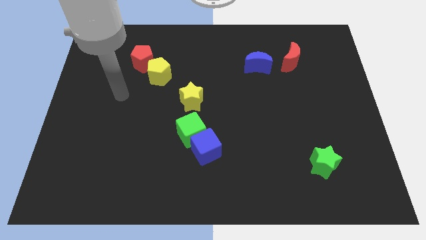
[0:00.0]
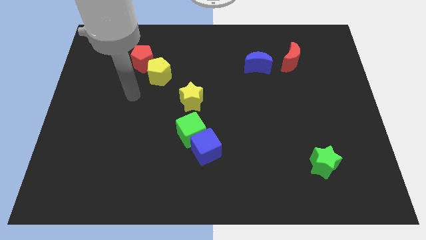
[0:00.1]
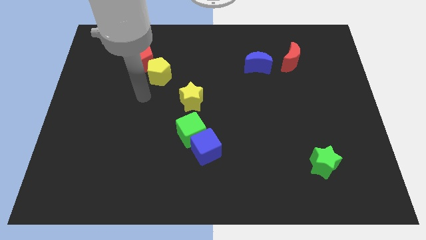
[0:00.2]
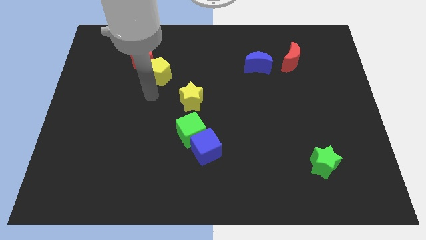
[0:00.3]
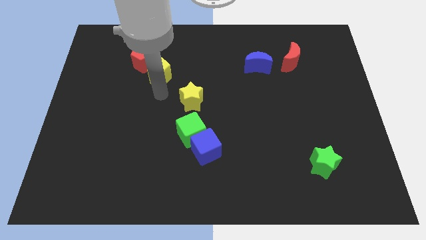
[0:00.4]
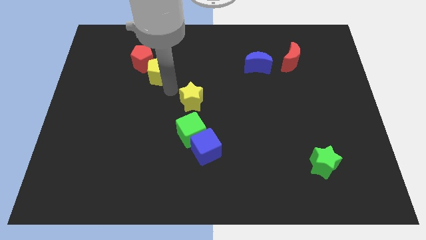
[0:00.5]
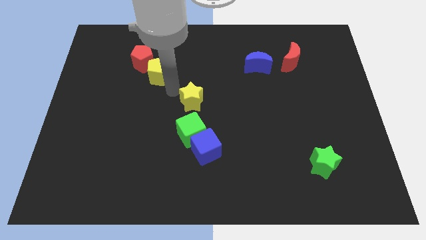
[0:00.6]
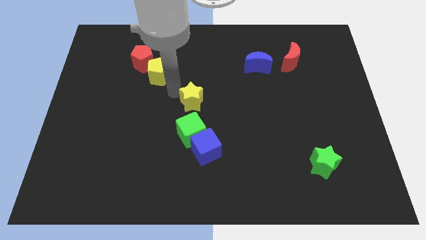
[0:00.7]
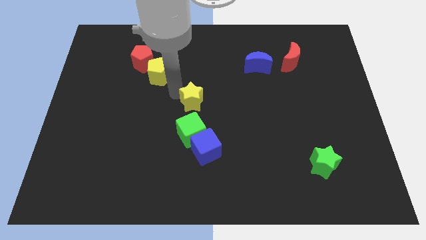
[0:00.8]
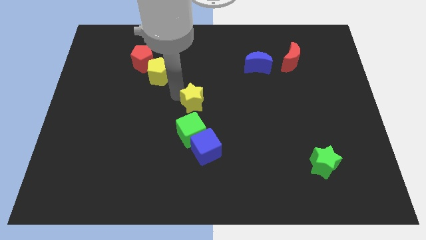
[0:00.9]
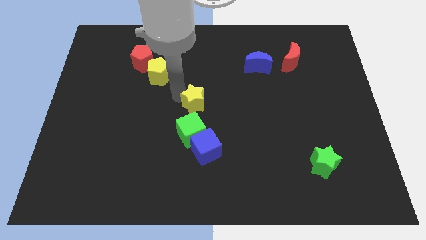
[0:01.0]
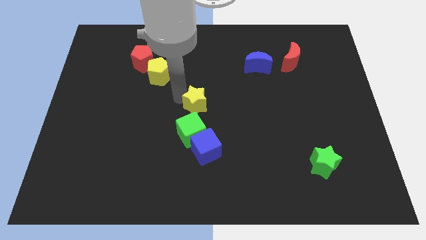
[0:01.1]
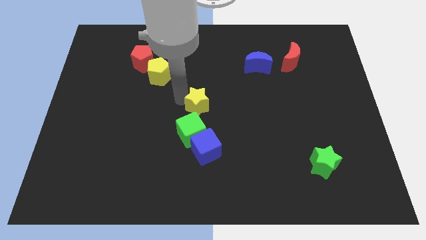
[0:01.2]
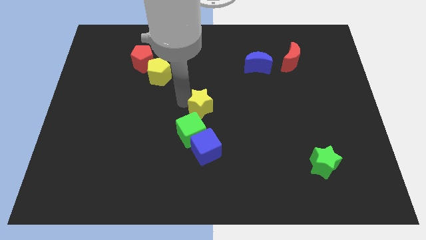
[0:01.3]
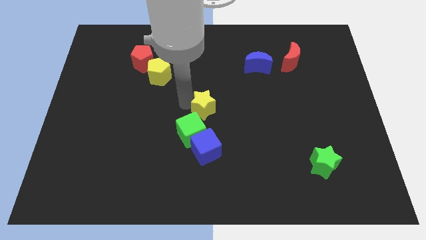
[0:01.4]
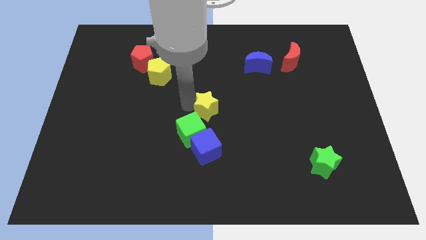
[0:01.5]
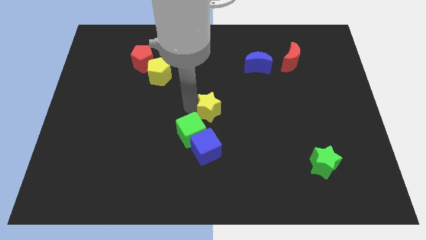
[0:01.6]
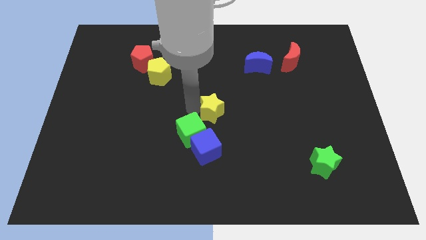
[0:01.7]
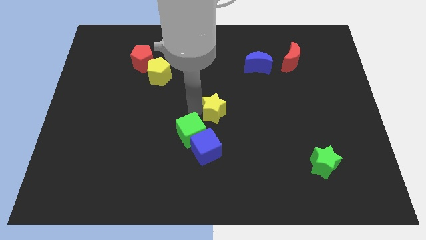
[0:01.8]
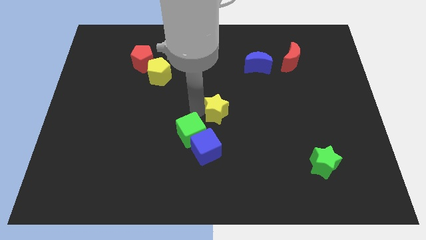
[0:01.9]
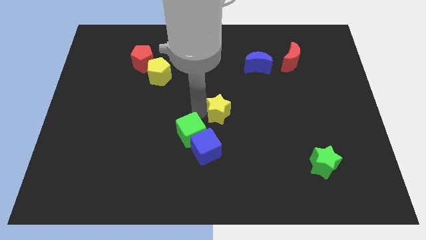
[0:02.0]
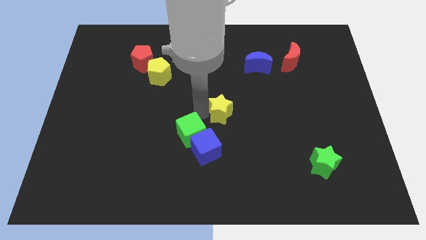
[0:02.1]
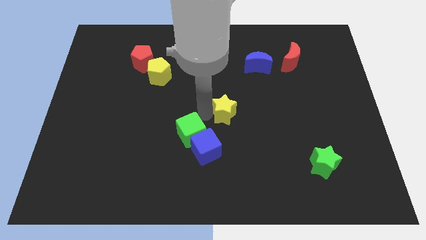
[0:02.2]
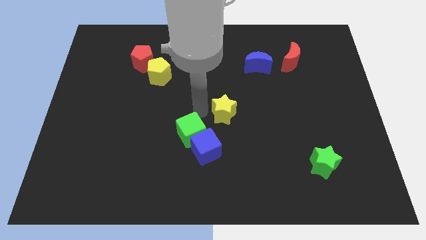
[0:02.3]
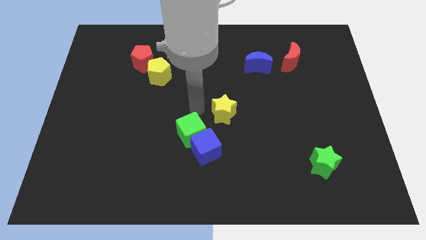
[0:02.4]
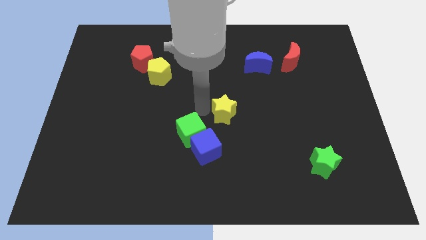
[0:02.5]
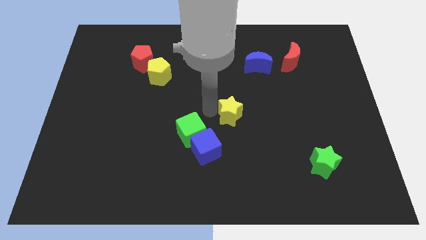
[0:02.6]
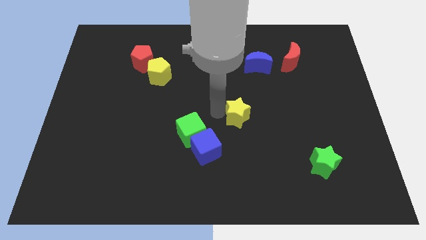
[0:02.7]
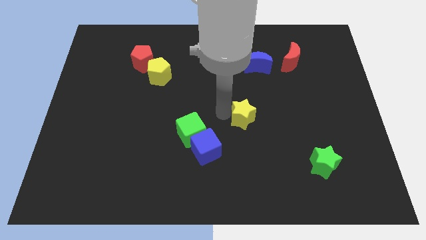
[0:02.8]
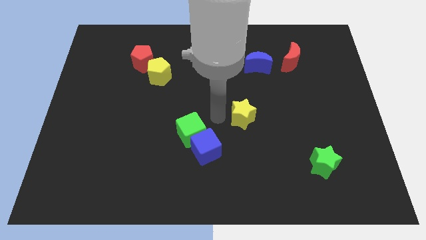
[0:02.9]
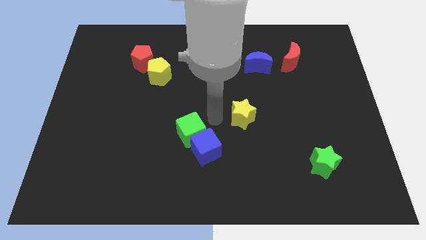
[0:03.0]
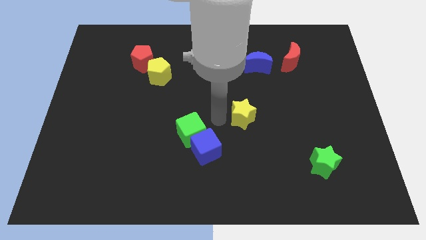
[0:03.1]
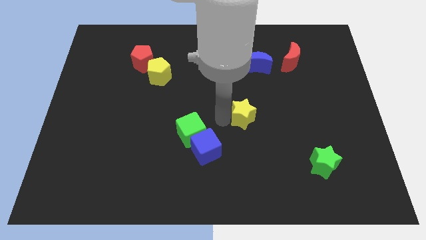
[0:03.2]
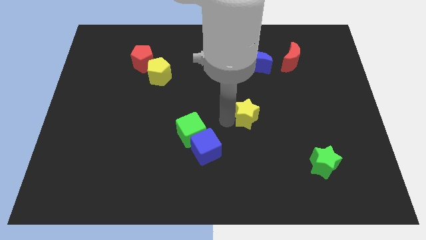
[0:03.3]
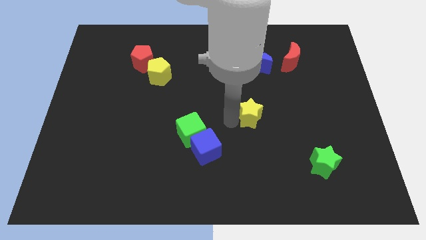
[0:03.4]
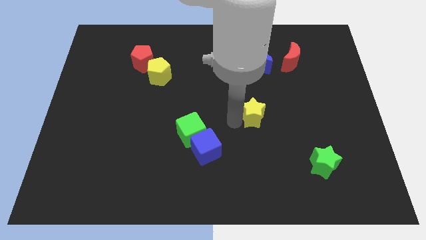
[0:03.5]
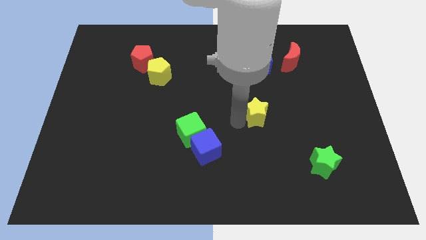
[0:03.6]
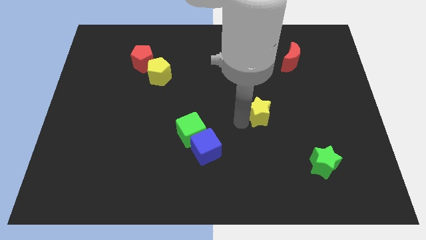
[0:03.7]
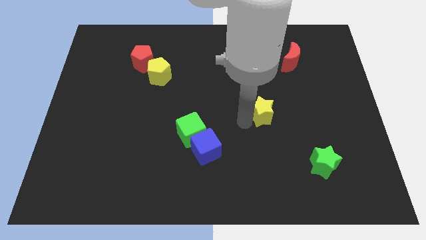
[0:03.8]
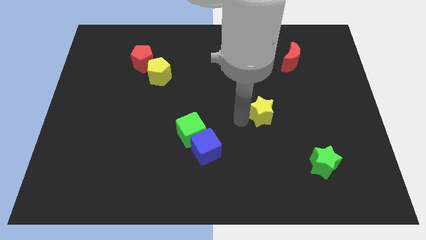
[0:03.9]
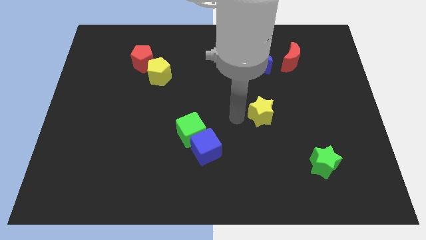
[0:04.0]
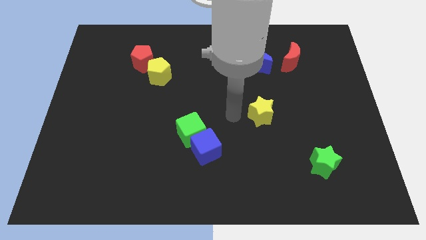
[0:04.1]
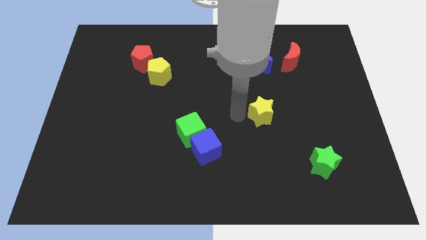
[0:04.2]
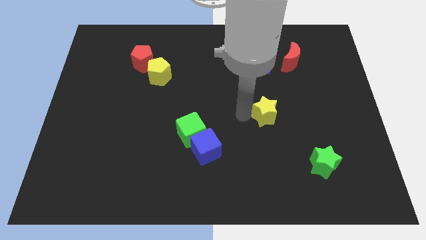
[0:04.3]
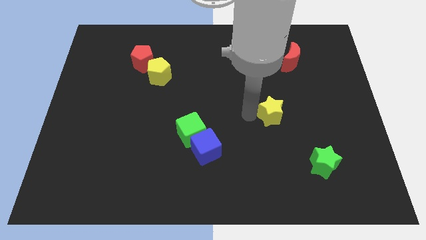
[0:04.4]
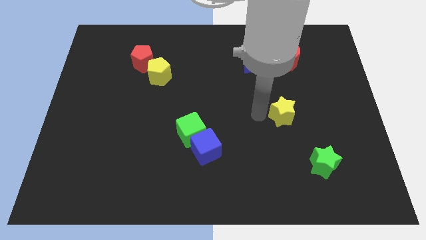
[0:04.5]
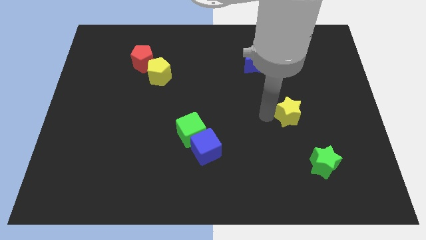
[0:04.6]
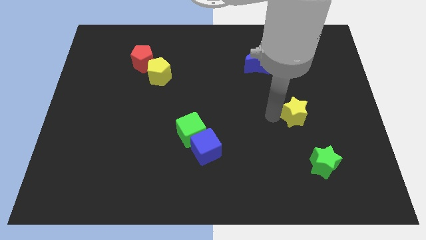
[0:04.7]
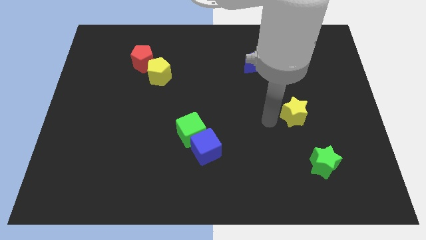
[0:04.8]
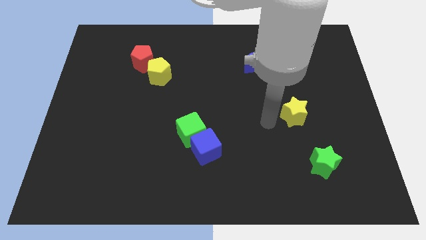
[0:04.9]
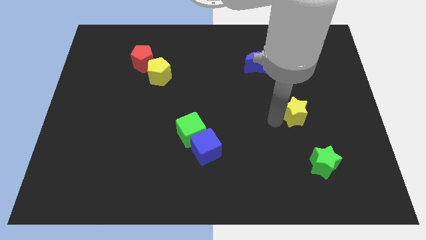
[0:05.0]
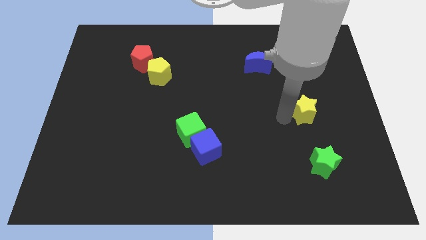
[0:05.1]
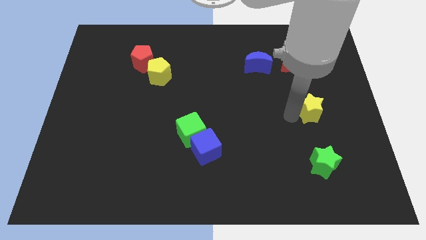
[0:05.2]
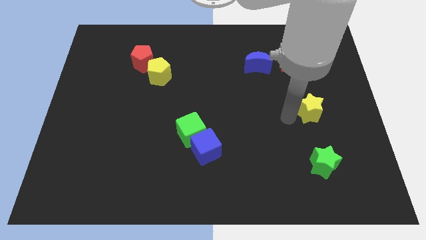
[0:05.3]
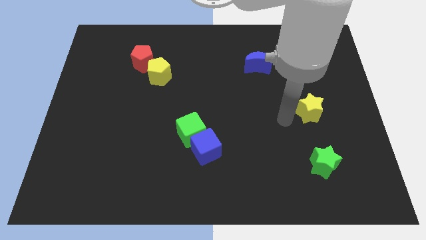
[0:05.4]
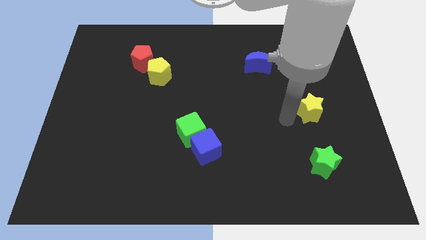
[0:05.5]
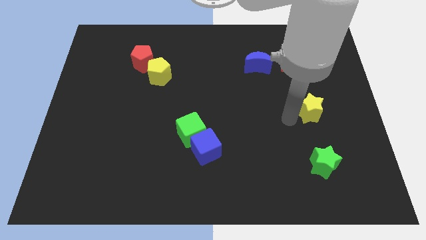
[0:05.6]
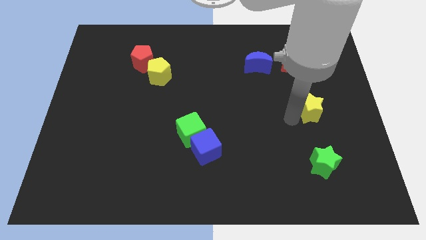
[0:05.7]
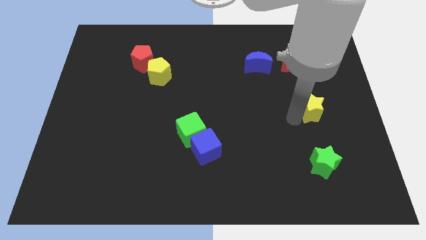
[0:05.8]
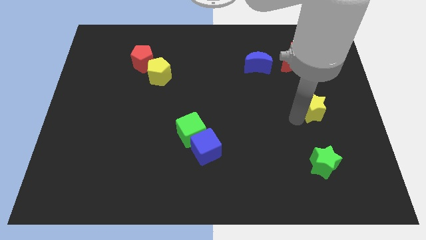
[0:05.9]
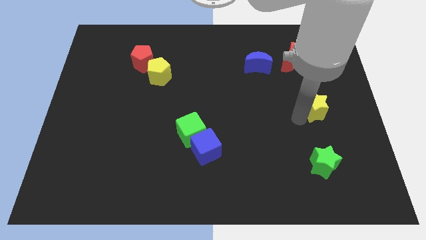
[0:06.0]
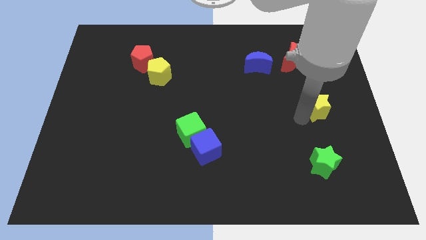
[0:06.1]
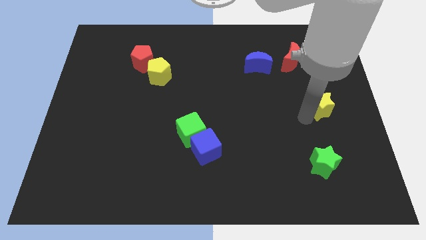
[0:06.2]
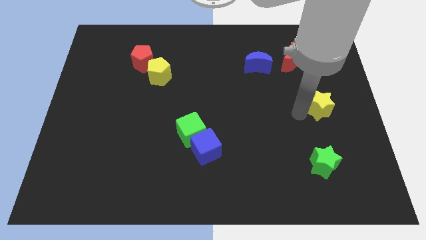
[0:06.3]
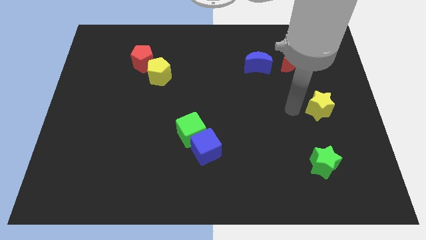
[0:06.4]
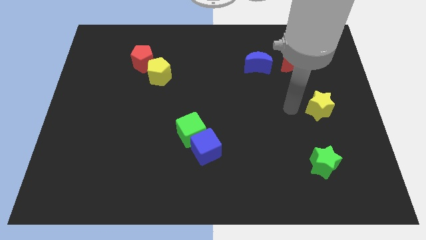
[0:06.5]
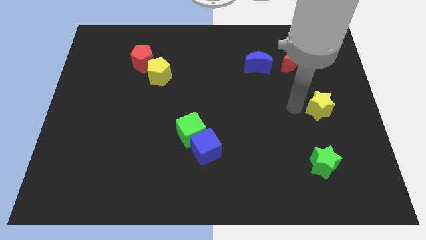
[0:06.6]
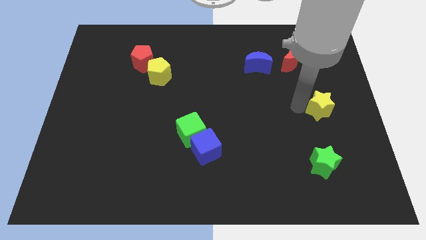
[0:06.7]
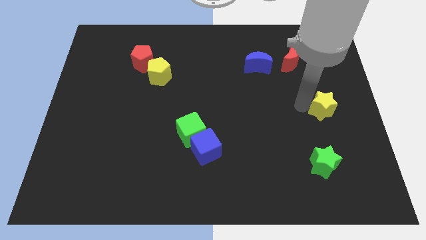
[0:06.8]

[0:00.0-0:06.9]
move the yellow star to the right side of the board
